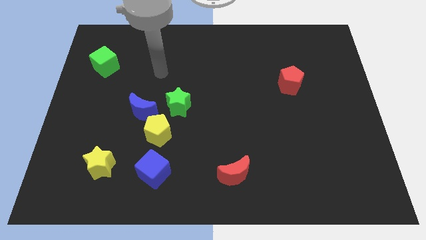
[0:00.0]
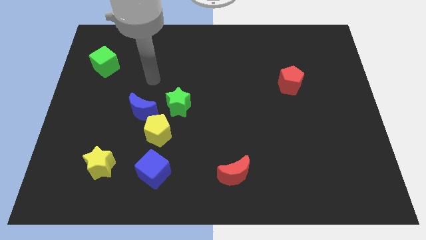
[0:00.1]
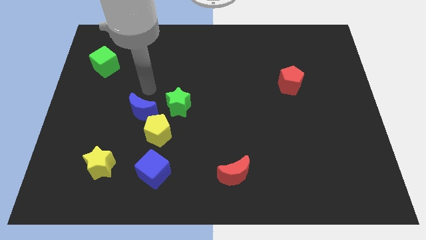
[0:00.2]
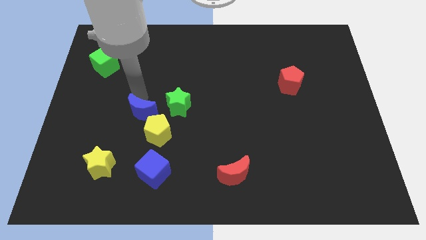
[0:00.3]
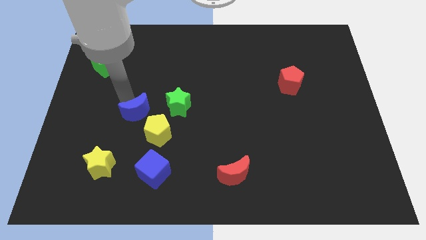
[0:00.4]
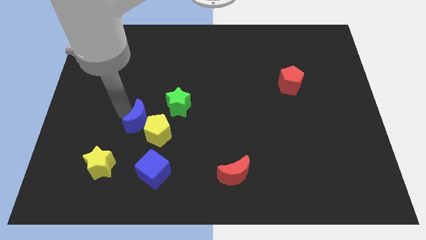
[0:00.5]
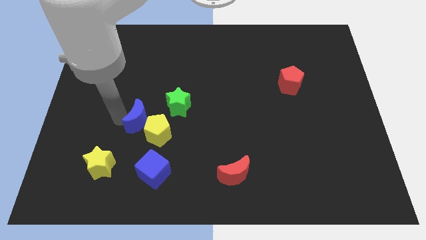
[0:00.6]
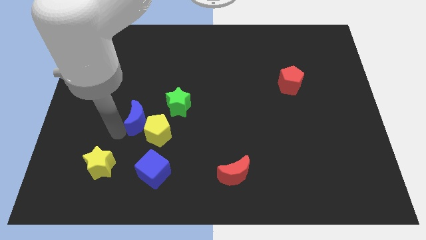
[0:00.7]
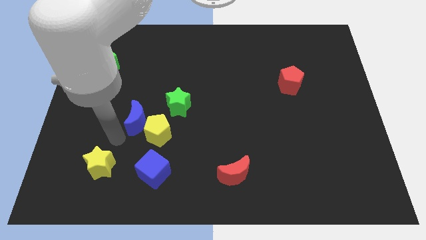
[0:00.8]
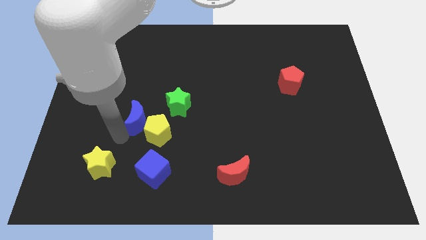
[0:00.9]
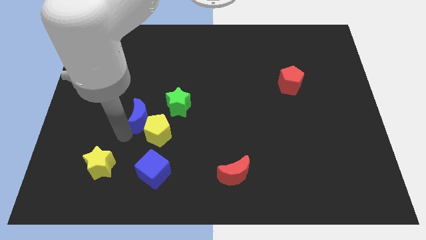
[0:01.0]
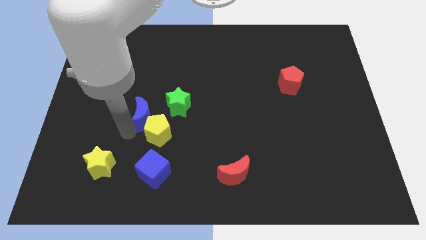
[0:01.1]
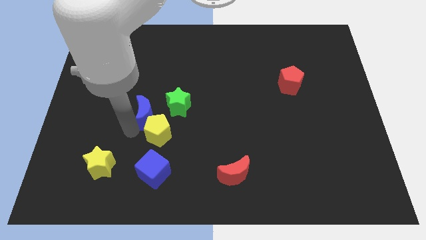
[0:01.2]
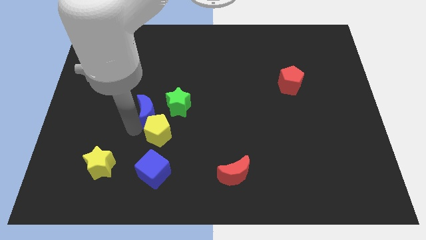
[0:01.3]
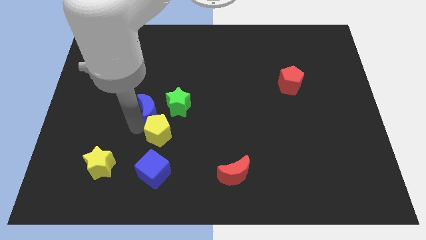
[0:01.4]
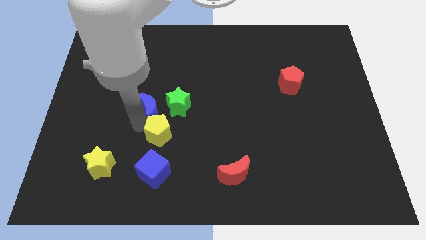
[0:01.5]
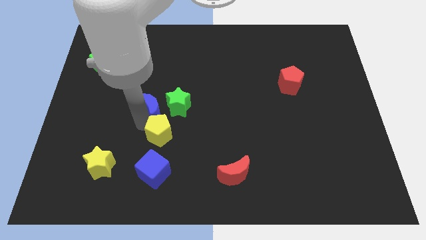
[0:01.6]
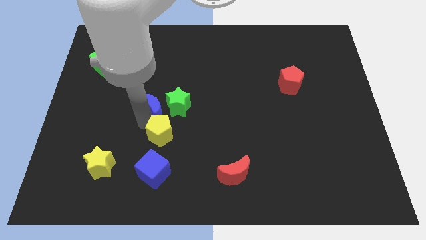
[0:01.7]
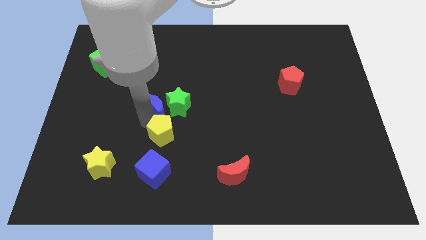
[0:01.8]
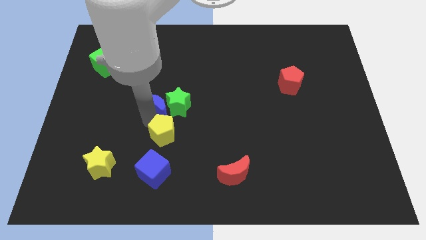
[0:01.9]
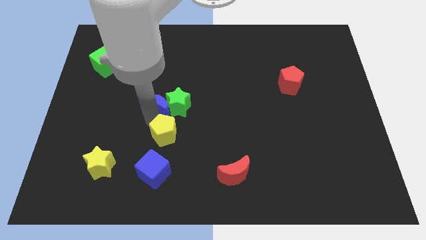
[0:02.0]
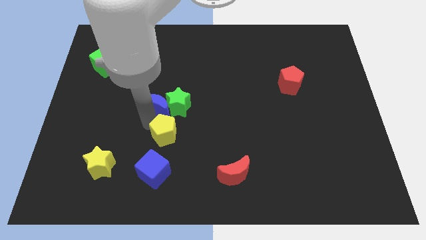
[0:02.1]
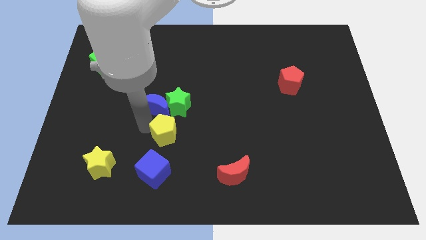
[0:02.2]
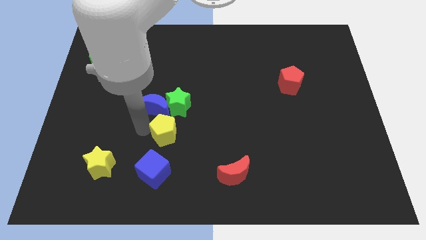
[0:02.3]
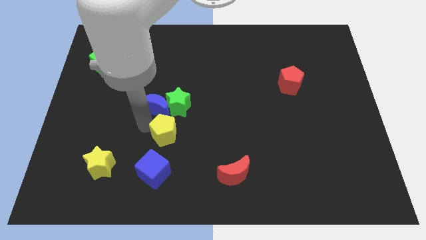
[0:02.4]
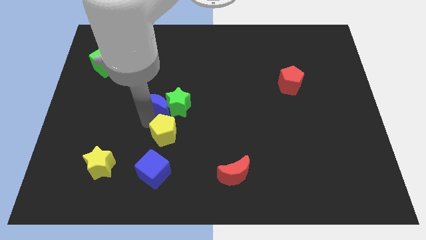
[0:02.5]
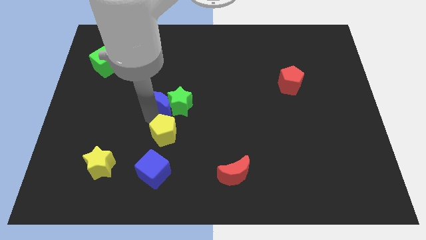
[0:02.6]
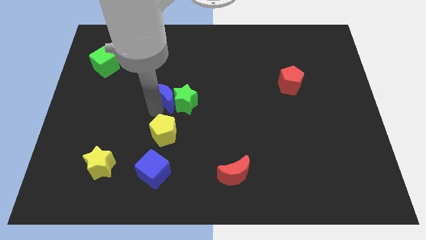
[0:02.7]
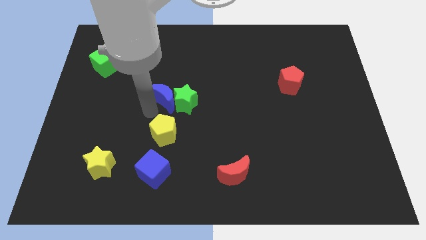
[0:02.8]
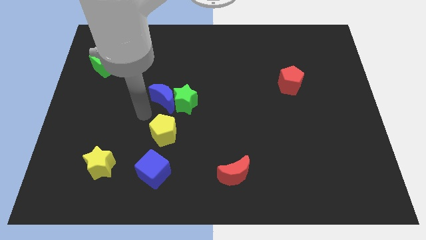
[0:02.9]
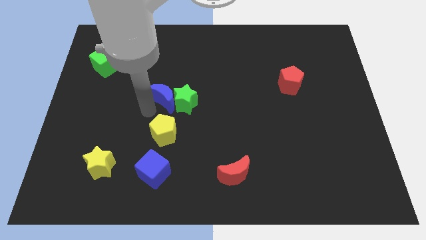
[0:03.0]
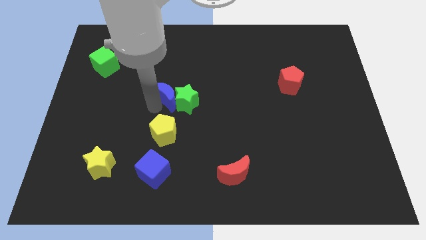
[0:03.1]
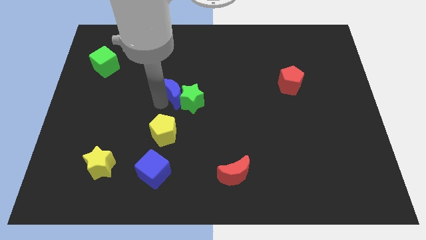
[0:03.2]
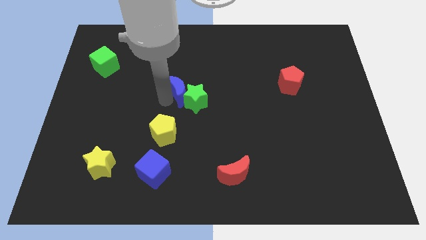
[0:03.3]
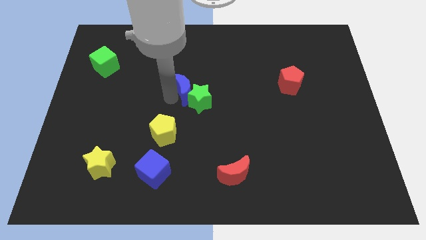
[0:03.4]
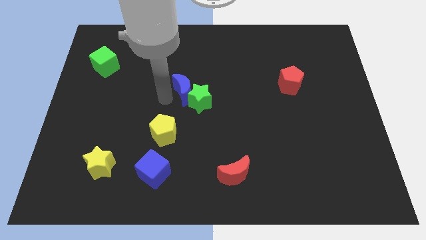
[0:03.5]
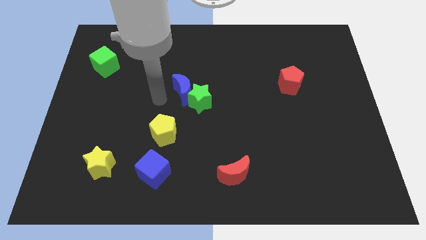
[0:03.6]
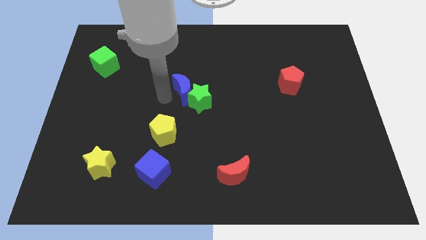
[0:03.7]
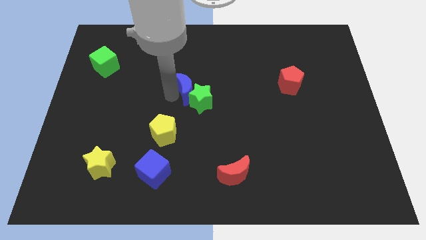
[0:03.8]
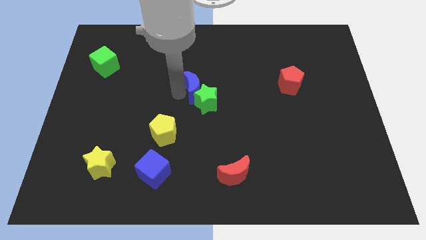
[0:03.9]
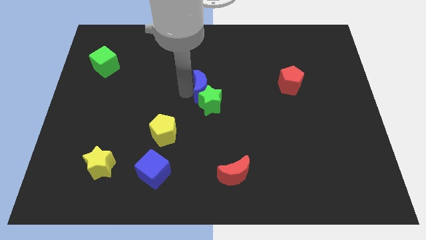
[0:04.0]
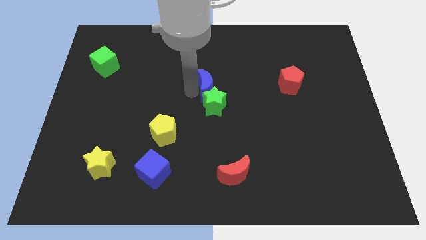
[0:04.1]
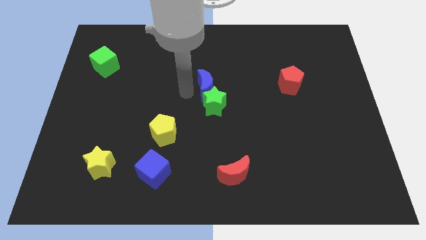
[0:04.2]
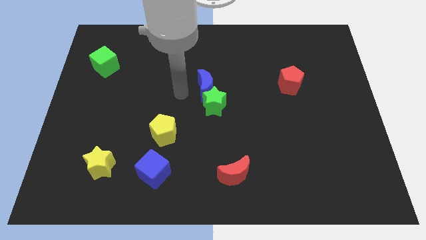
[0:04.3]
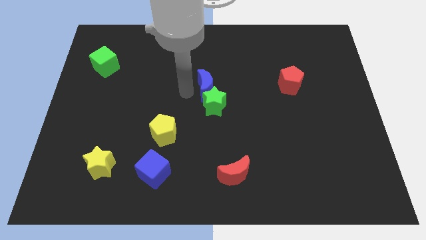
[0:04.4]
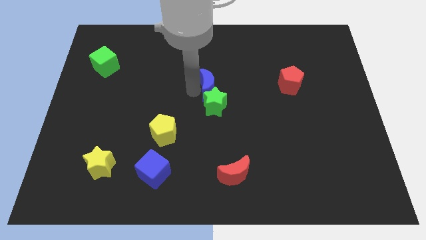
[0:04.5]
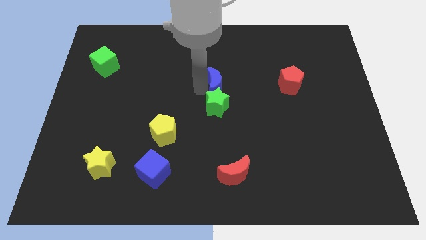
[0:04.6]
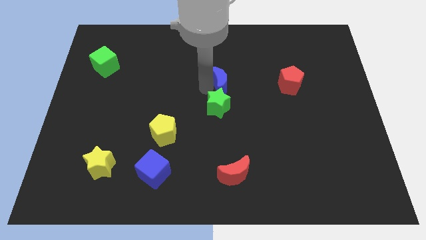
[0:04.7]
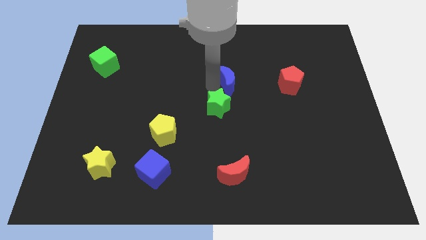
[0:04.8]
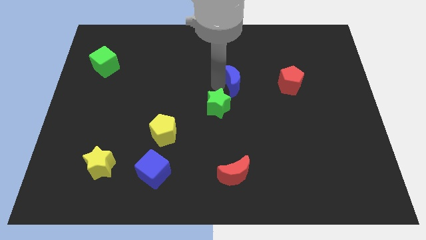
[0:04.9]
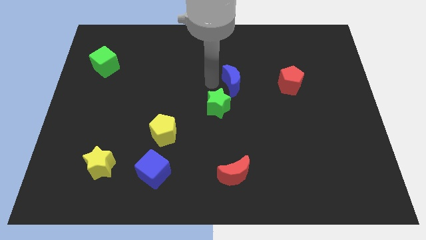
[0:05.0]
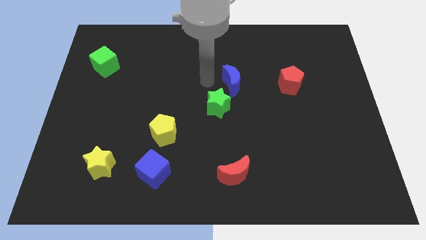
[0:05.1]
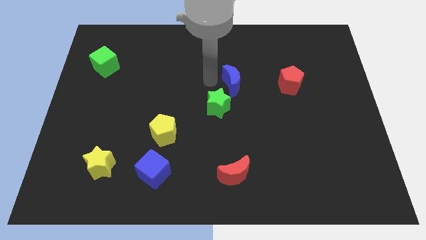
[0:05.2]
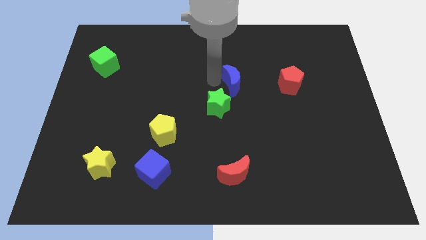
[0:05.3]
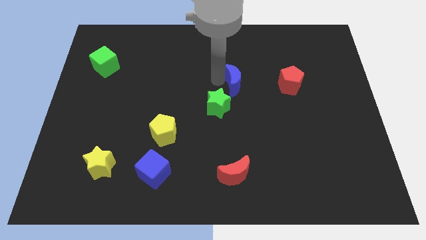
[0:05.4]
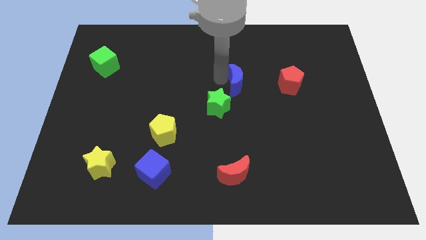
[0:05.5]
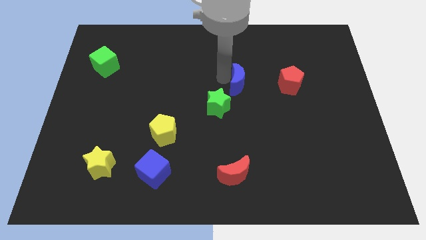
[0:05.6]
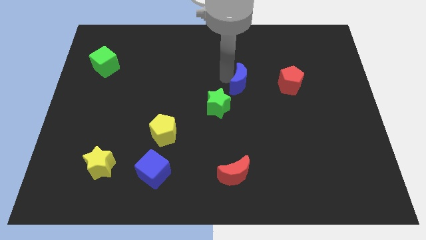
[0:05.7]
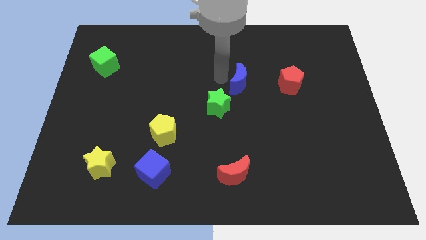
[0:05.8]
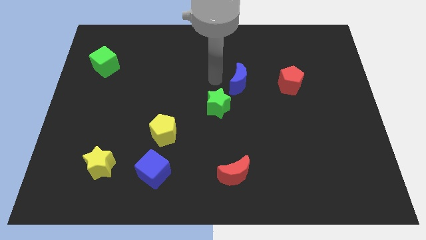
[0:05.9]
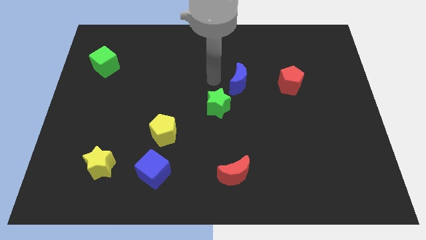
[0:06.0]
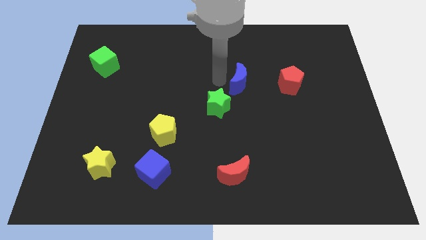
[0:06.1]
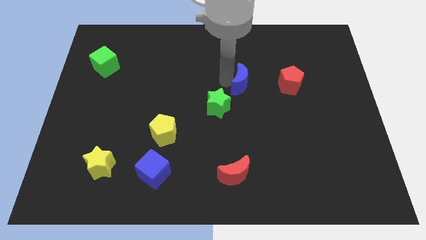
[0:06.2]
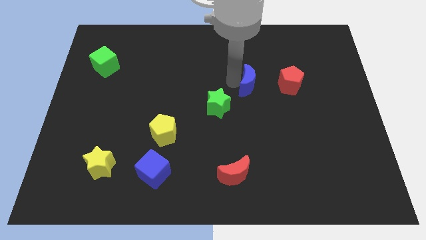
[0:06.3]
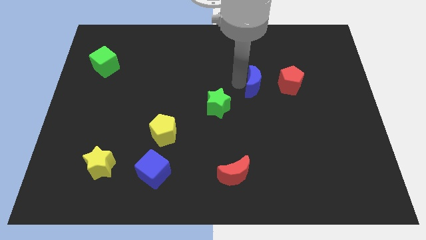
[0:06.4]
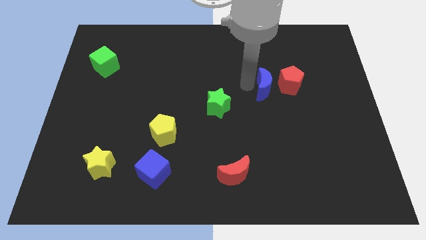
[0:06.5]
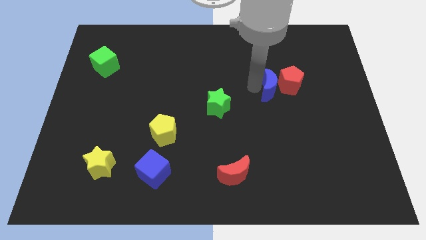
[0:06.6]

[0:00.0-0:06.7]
slide the blue moon to the red pentagon
